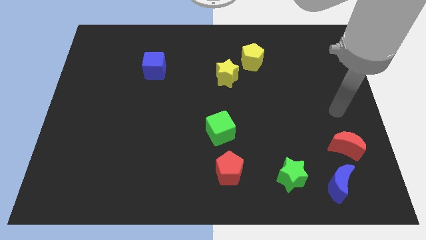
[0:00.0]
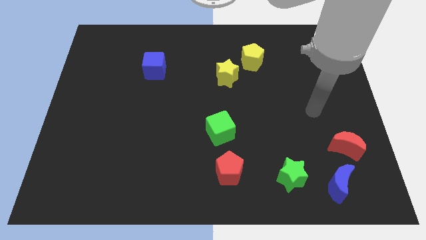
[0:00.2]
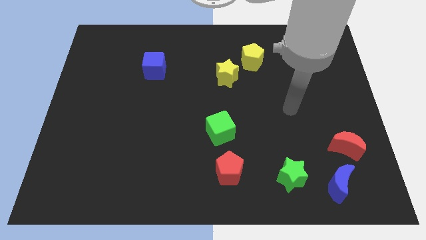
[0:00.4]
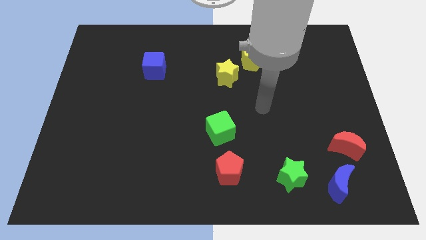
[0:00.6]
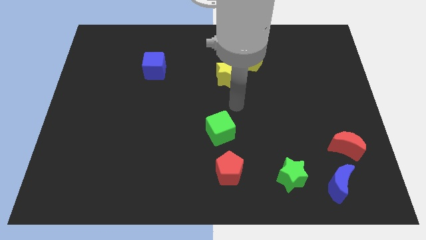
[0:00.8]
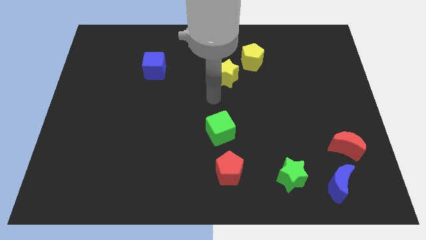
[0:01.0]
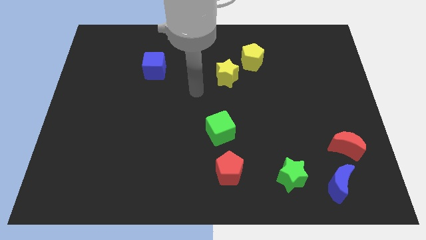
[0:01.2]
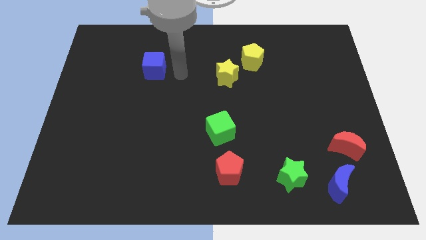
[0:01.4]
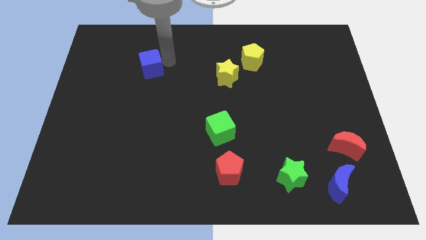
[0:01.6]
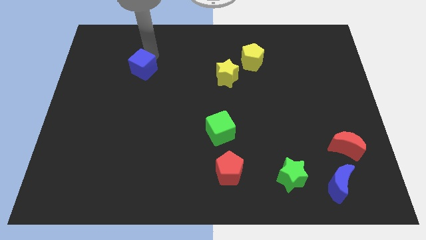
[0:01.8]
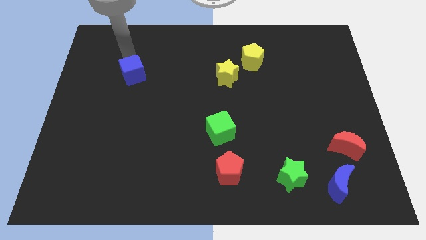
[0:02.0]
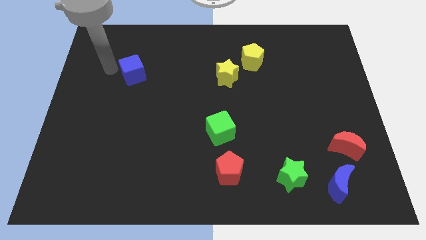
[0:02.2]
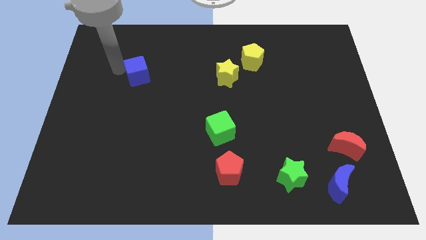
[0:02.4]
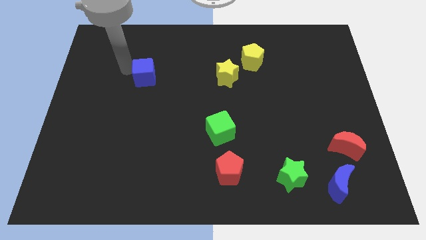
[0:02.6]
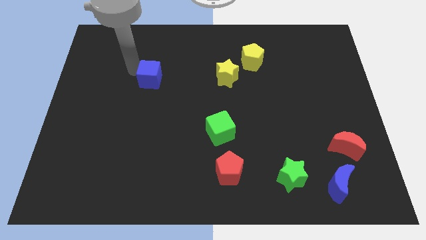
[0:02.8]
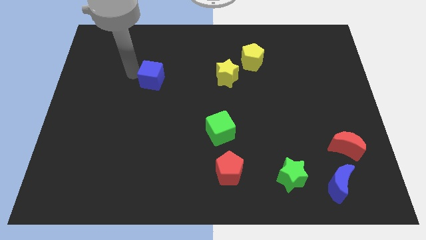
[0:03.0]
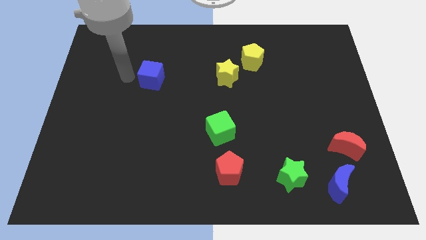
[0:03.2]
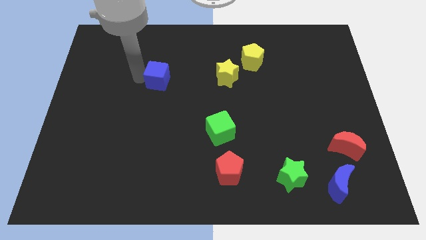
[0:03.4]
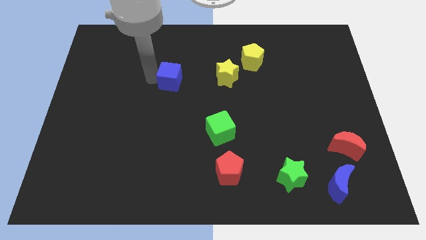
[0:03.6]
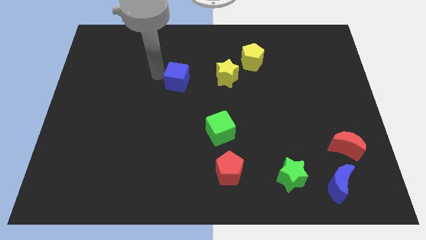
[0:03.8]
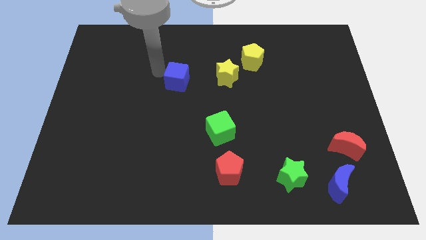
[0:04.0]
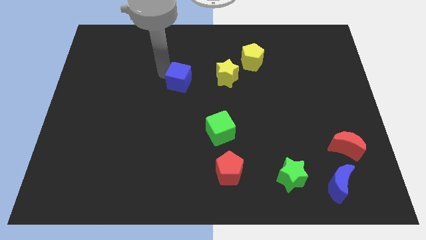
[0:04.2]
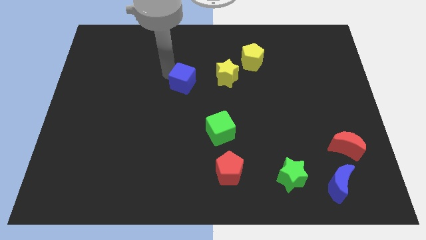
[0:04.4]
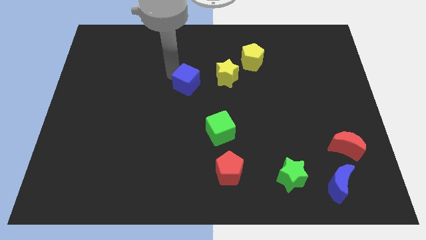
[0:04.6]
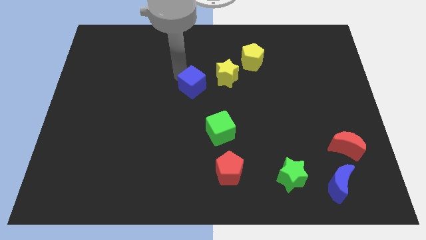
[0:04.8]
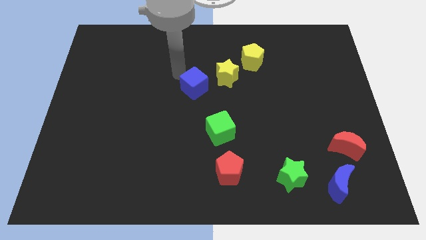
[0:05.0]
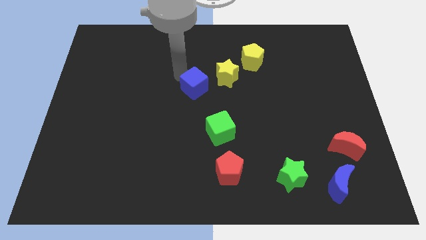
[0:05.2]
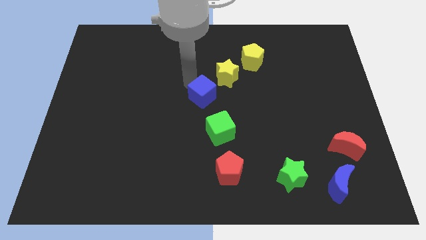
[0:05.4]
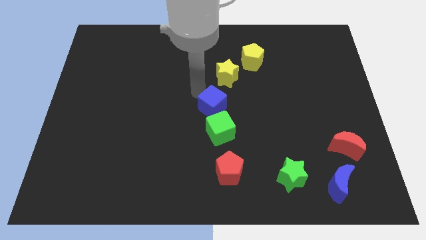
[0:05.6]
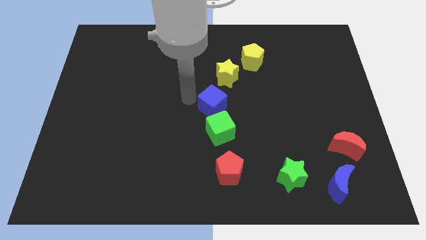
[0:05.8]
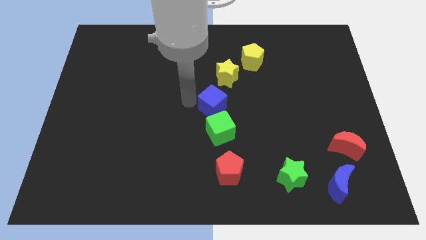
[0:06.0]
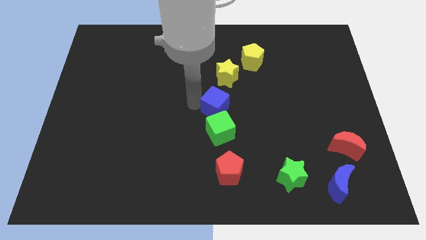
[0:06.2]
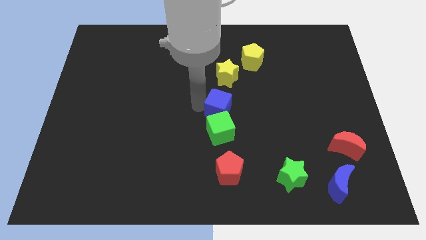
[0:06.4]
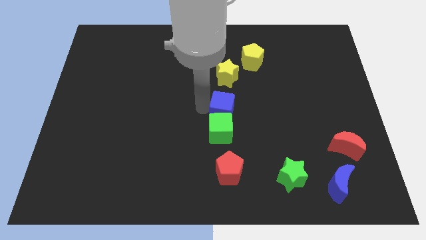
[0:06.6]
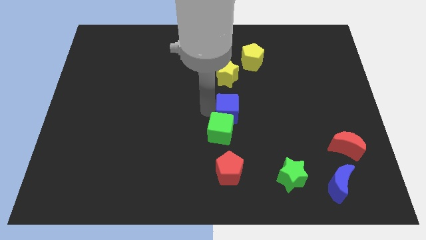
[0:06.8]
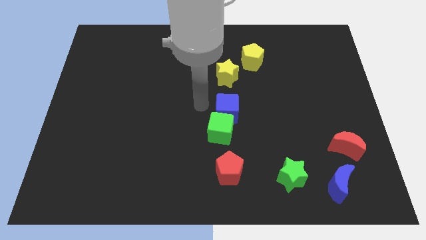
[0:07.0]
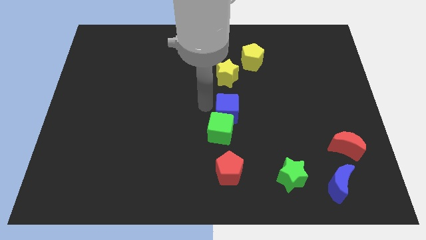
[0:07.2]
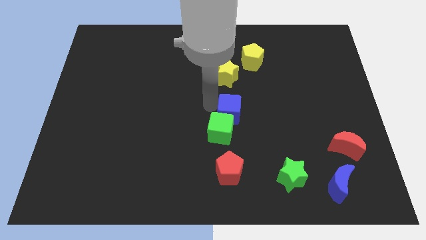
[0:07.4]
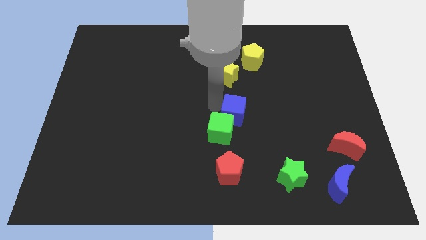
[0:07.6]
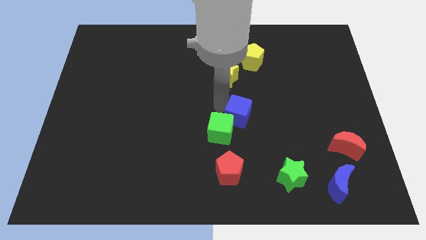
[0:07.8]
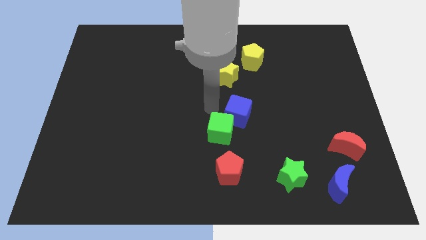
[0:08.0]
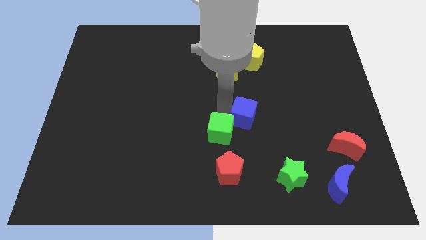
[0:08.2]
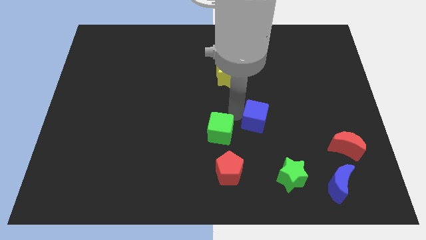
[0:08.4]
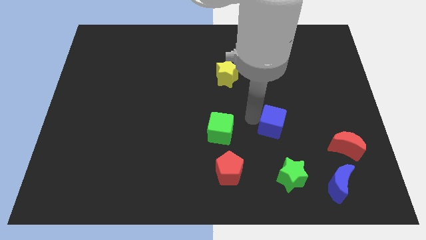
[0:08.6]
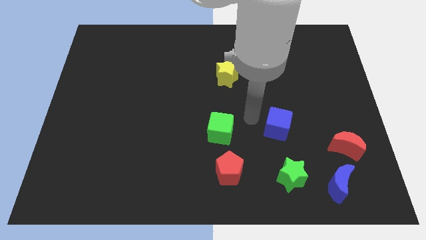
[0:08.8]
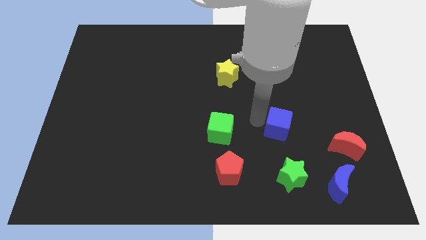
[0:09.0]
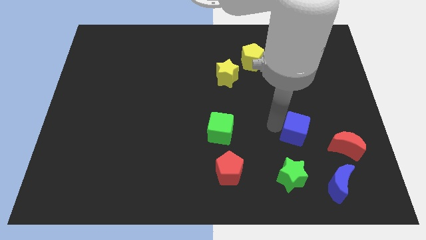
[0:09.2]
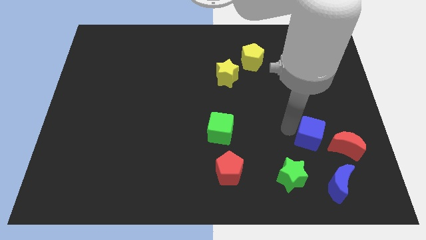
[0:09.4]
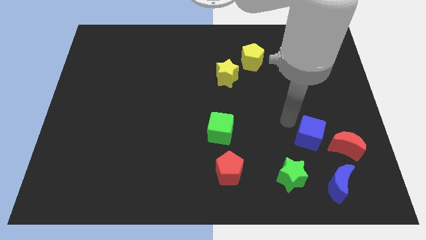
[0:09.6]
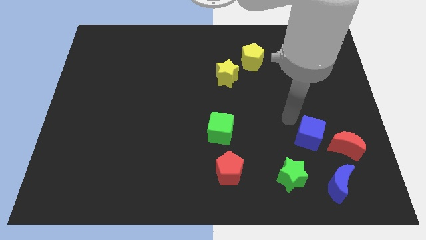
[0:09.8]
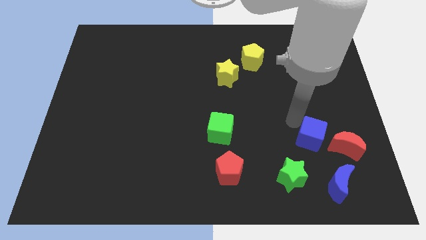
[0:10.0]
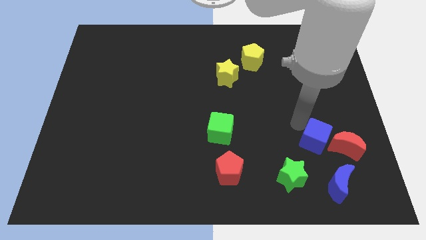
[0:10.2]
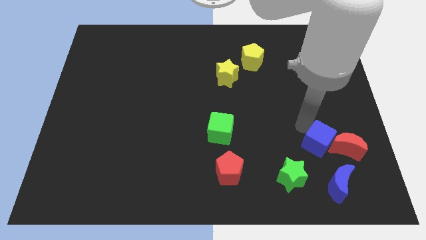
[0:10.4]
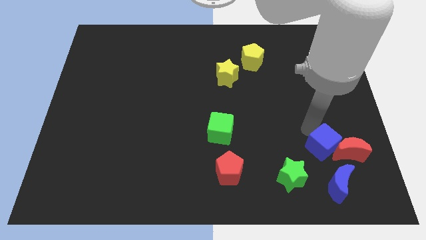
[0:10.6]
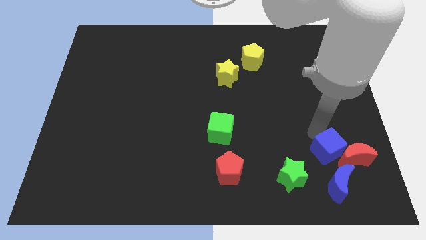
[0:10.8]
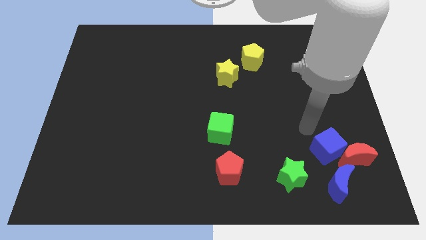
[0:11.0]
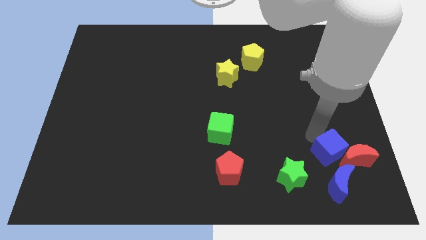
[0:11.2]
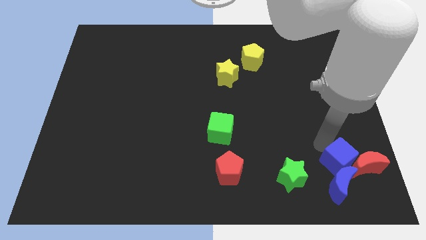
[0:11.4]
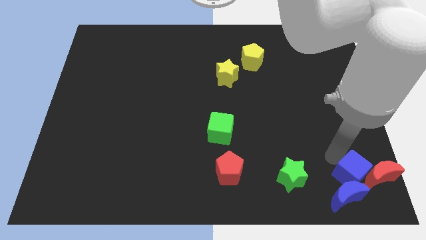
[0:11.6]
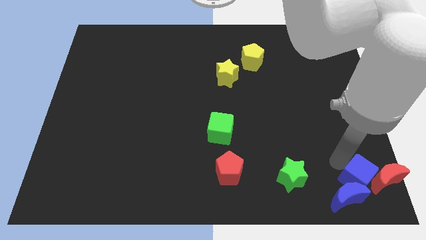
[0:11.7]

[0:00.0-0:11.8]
push the blue cube to the bottom right corner
